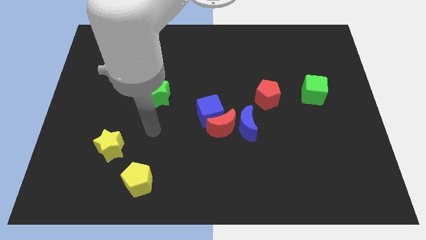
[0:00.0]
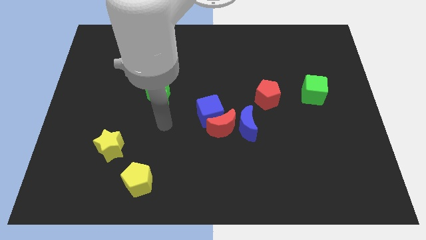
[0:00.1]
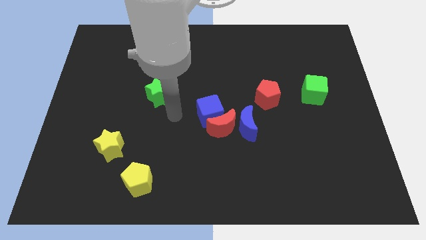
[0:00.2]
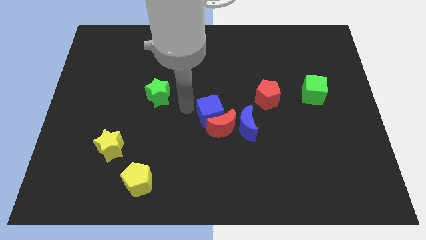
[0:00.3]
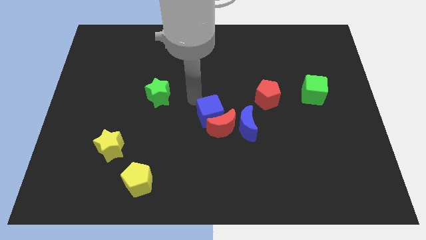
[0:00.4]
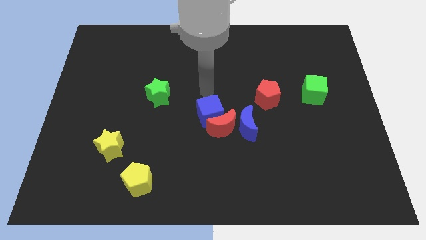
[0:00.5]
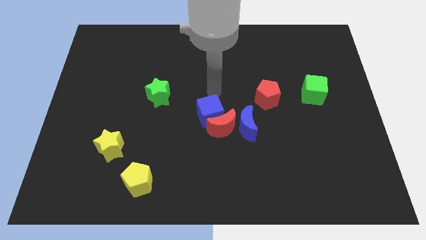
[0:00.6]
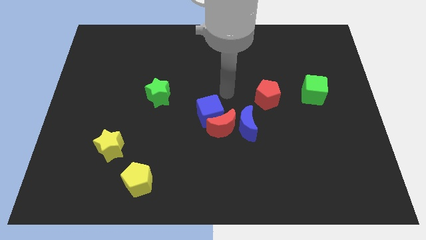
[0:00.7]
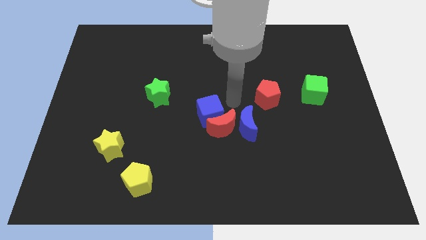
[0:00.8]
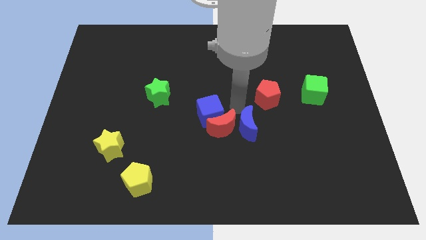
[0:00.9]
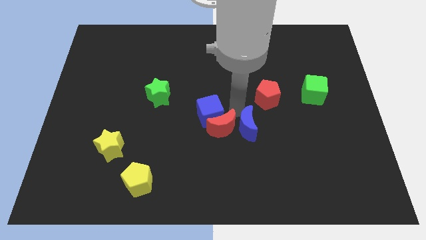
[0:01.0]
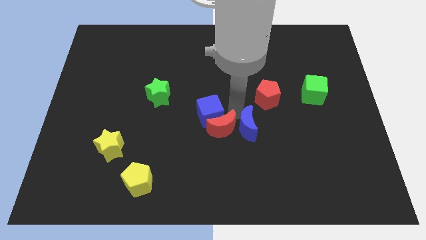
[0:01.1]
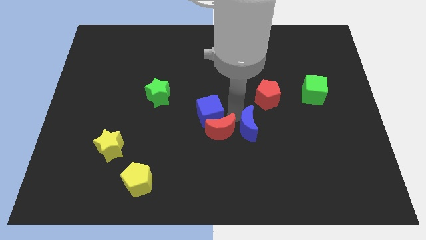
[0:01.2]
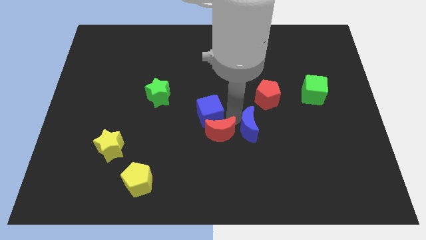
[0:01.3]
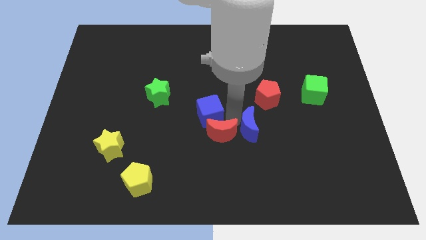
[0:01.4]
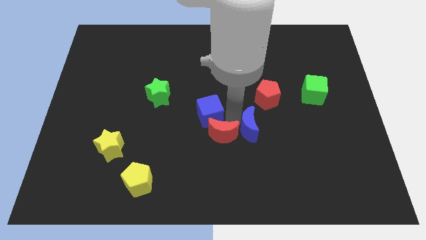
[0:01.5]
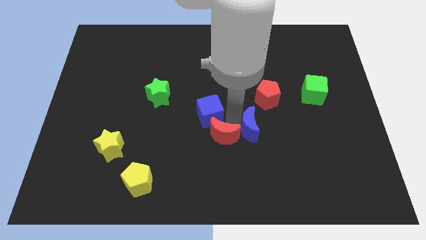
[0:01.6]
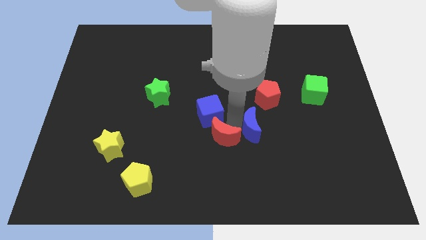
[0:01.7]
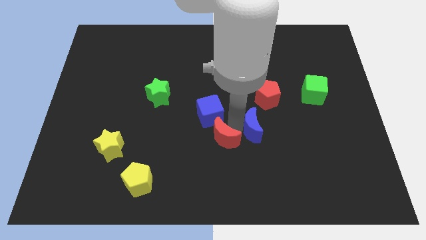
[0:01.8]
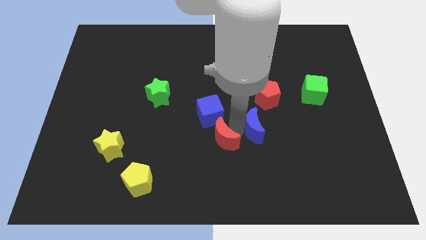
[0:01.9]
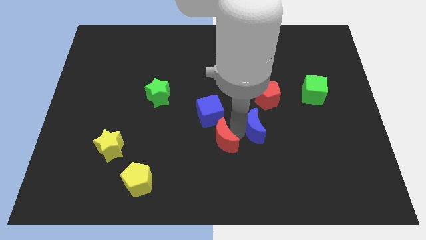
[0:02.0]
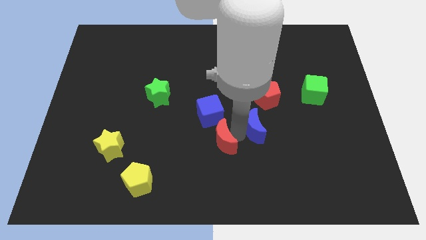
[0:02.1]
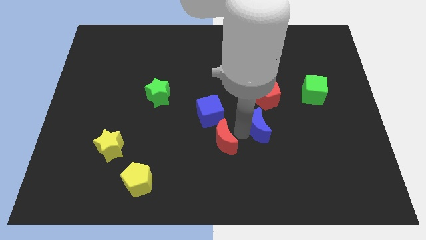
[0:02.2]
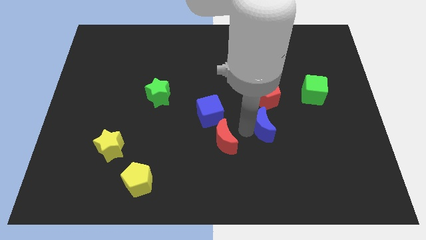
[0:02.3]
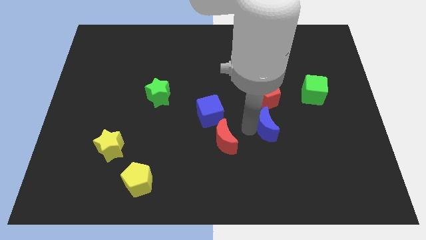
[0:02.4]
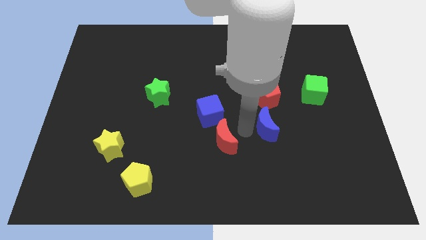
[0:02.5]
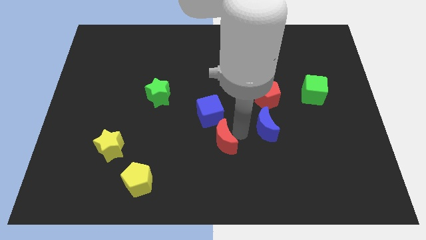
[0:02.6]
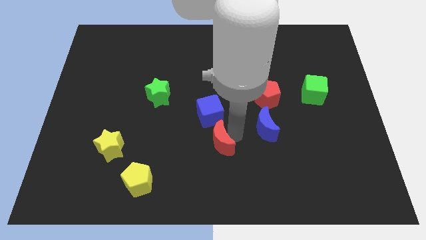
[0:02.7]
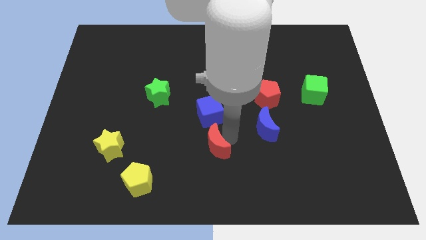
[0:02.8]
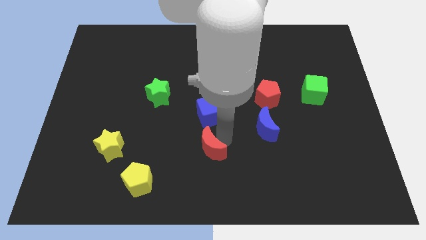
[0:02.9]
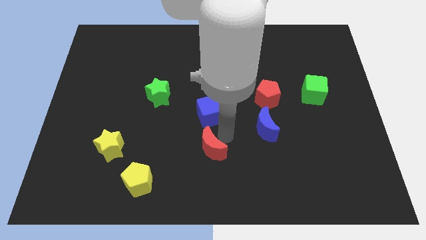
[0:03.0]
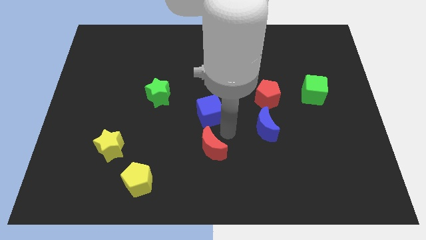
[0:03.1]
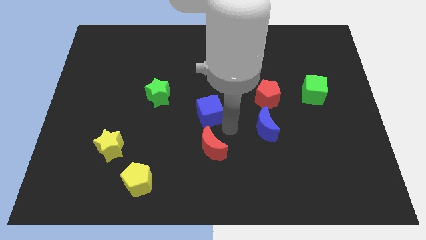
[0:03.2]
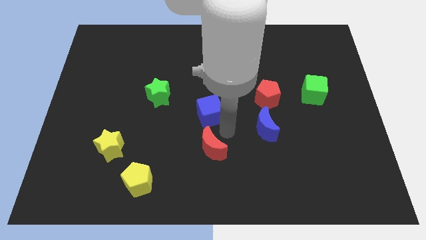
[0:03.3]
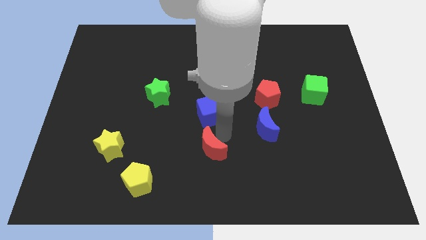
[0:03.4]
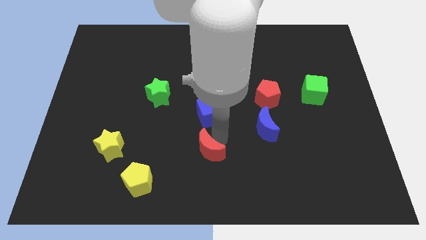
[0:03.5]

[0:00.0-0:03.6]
move the red moon away from the blue cube and blue moon

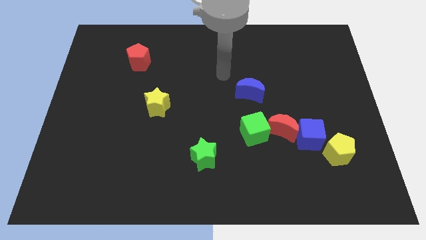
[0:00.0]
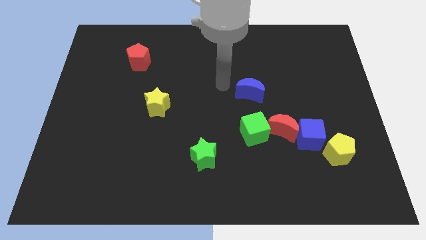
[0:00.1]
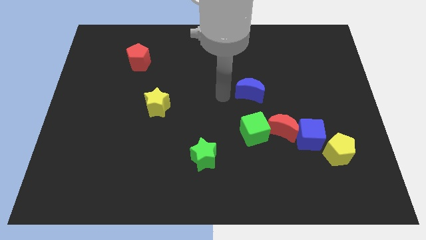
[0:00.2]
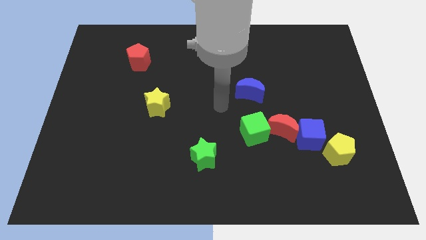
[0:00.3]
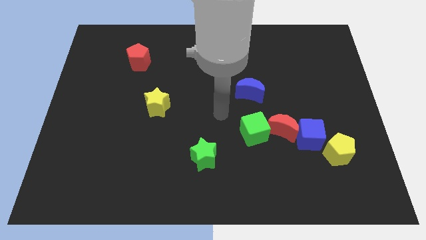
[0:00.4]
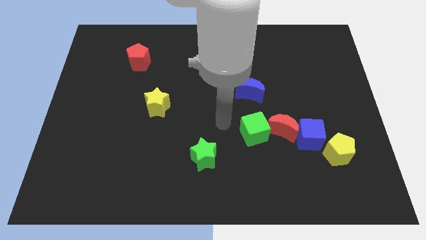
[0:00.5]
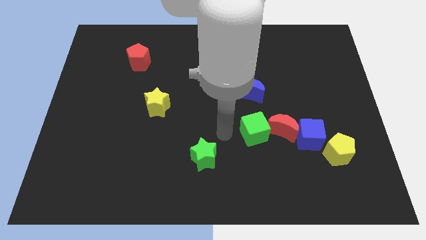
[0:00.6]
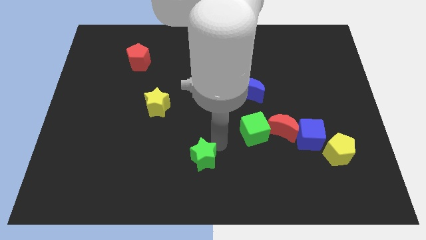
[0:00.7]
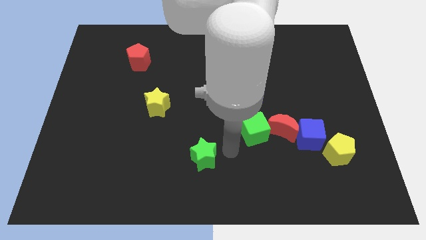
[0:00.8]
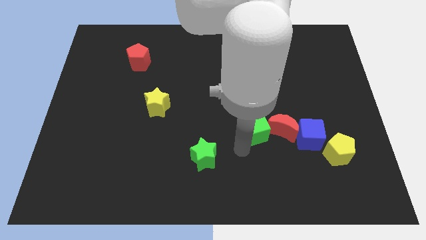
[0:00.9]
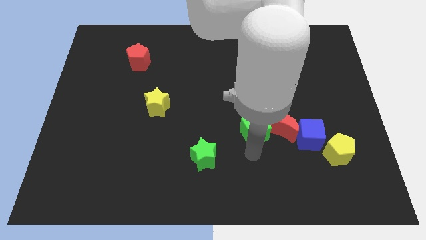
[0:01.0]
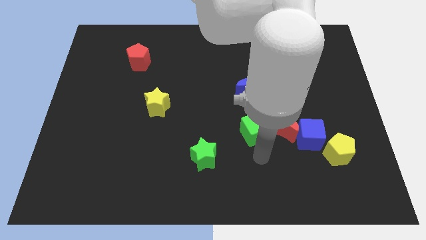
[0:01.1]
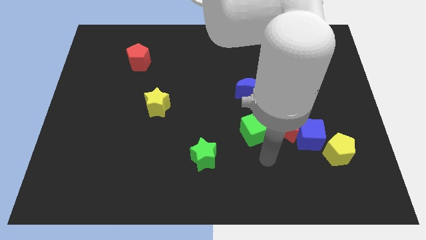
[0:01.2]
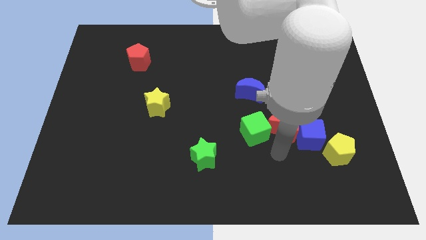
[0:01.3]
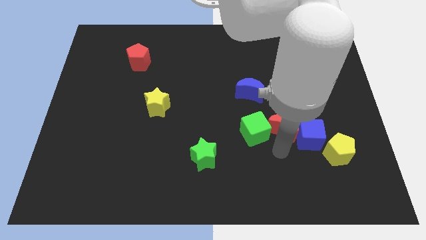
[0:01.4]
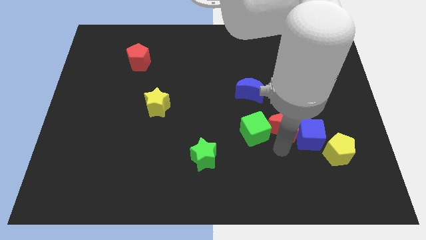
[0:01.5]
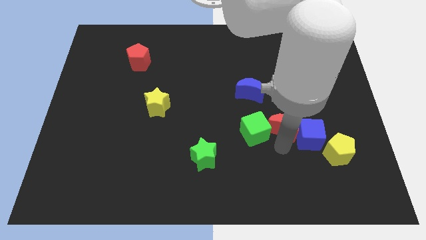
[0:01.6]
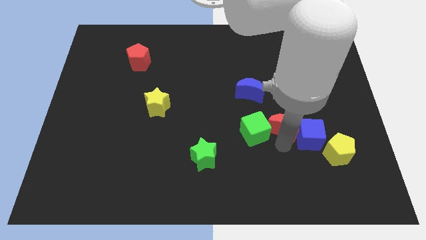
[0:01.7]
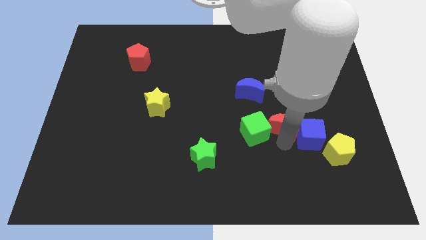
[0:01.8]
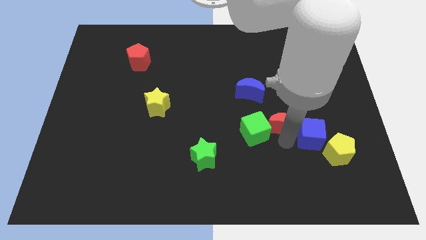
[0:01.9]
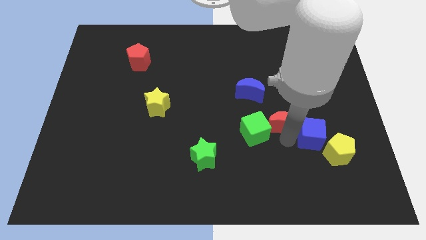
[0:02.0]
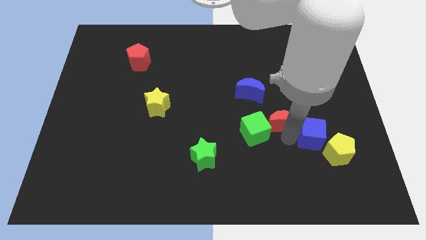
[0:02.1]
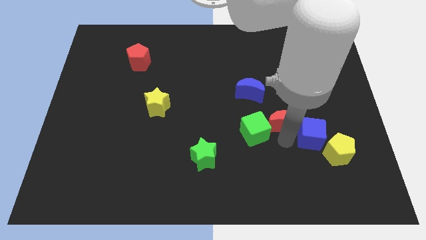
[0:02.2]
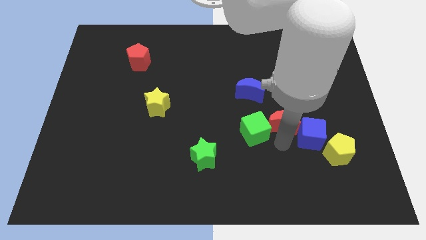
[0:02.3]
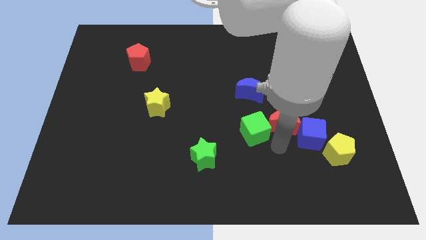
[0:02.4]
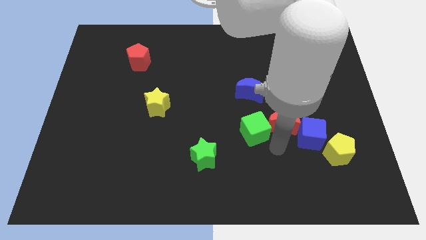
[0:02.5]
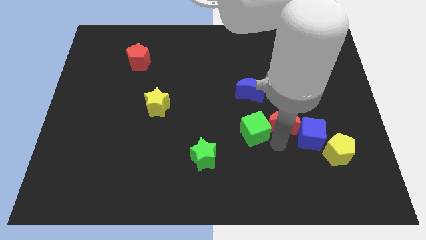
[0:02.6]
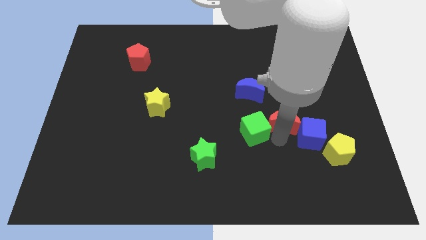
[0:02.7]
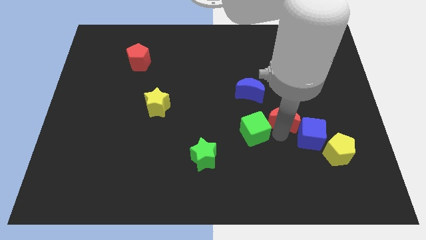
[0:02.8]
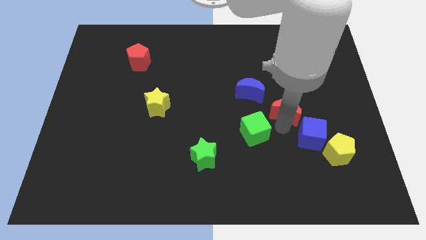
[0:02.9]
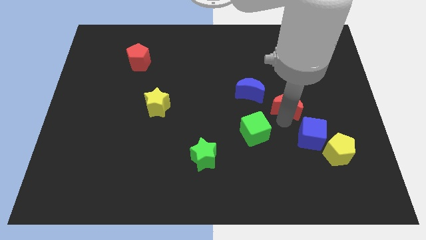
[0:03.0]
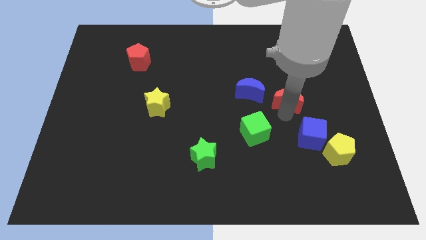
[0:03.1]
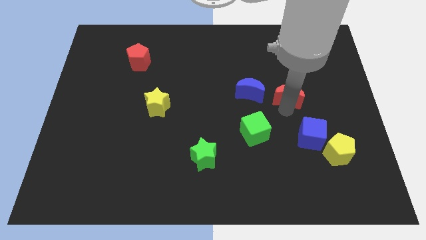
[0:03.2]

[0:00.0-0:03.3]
pull the red moon apart from the blue cube and green cube

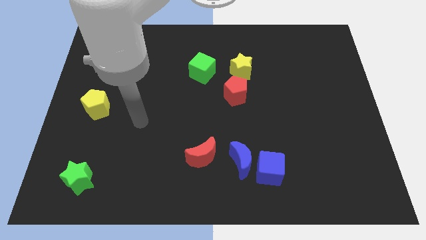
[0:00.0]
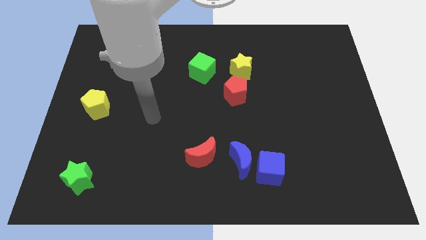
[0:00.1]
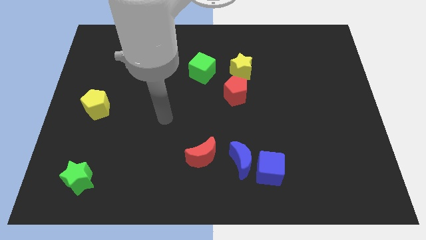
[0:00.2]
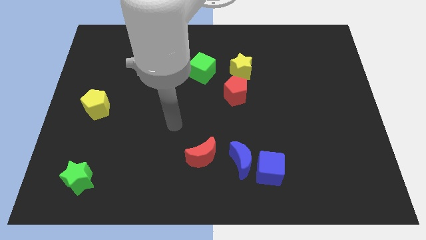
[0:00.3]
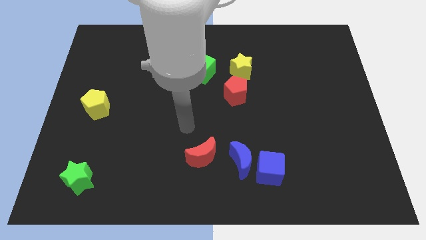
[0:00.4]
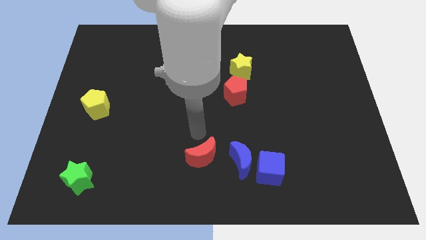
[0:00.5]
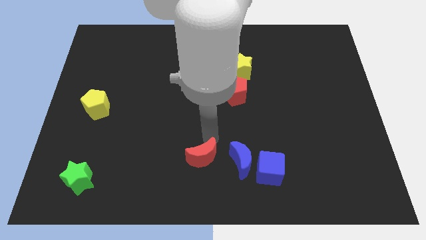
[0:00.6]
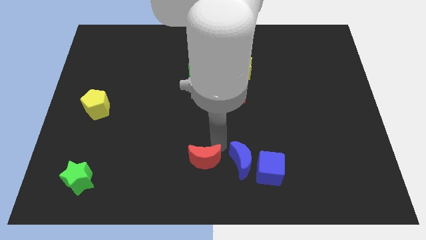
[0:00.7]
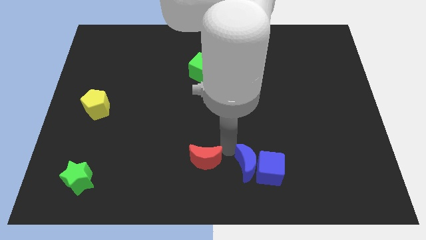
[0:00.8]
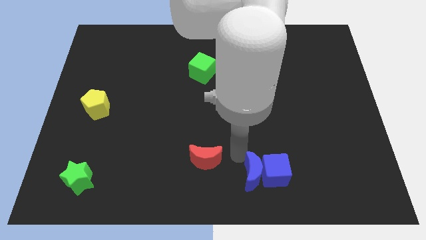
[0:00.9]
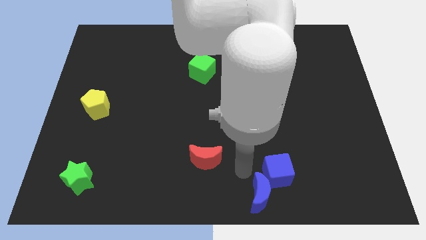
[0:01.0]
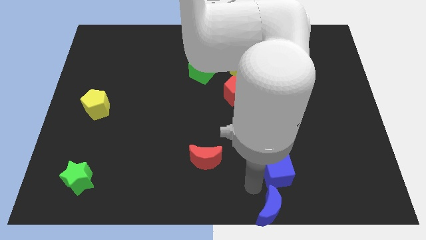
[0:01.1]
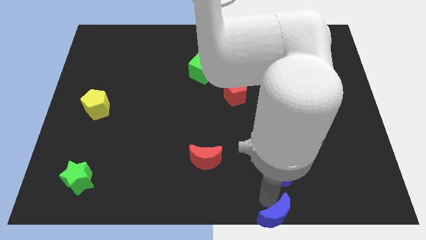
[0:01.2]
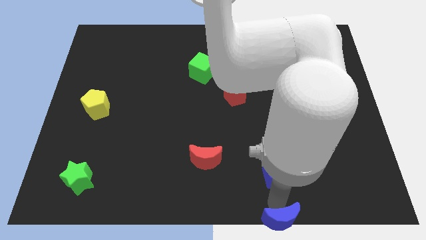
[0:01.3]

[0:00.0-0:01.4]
pull the blue cube apart from the blue moon

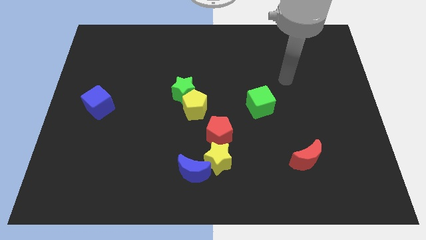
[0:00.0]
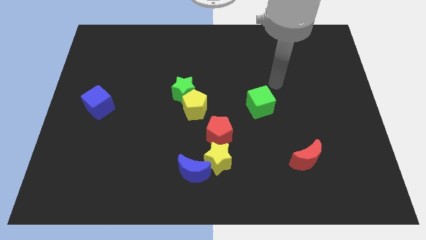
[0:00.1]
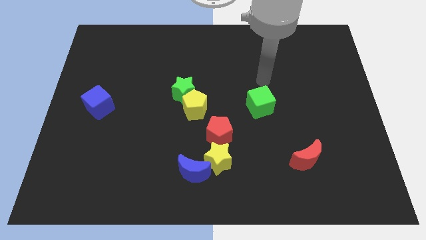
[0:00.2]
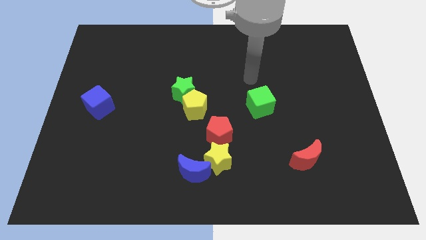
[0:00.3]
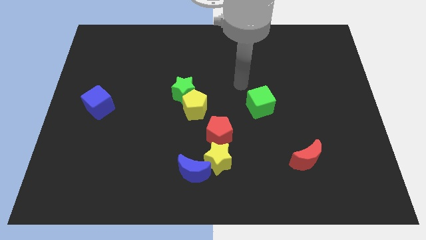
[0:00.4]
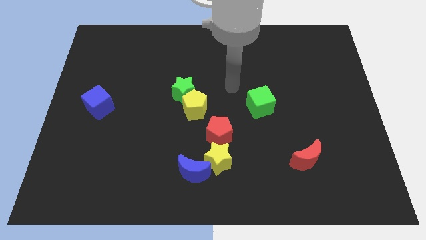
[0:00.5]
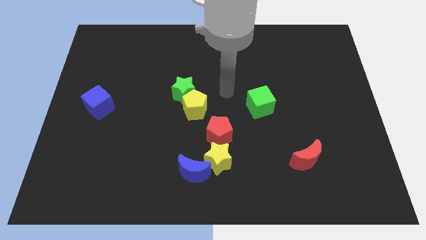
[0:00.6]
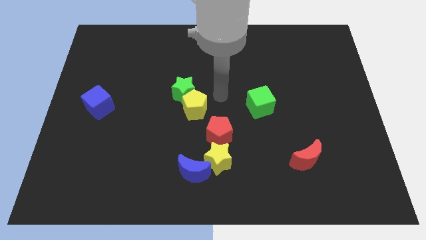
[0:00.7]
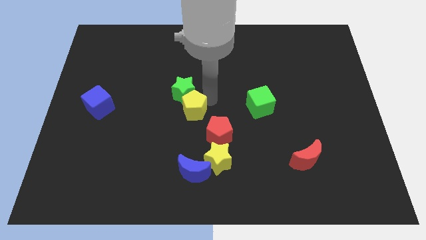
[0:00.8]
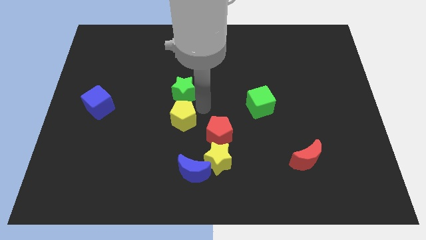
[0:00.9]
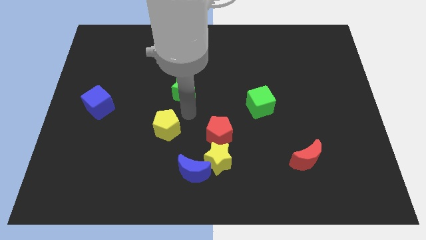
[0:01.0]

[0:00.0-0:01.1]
move the green star away from the yellow pentagon
